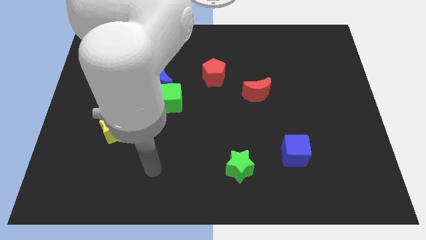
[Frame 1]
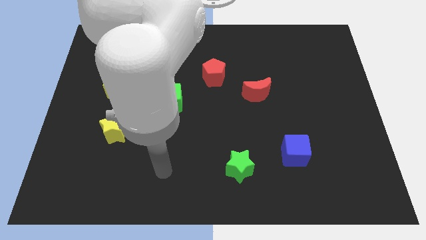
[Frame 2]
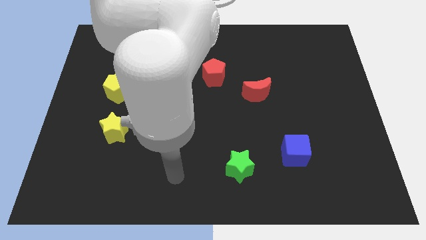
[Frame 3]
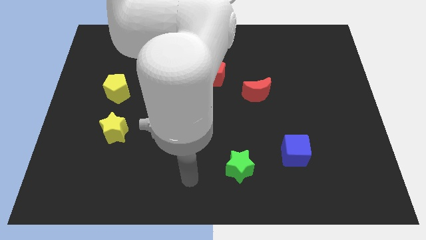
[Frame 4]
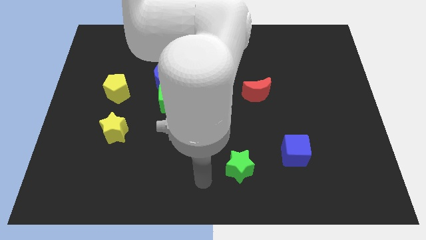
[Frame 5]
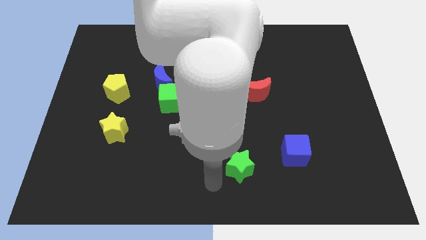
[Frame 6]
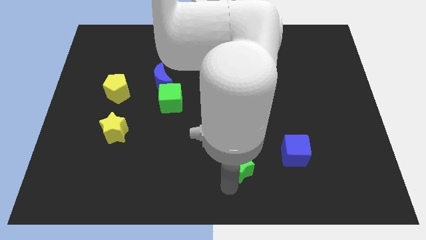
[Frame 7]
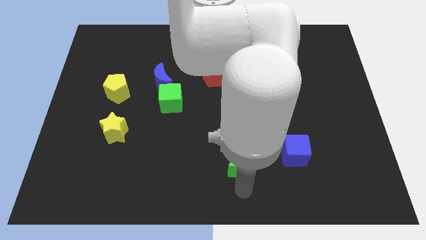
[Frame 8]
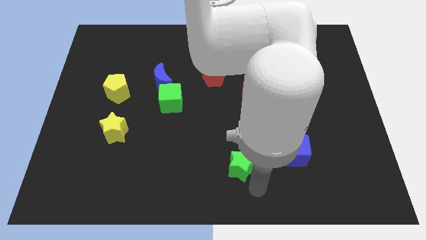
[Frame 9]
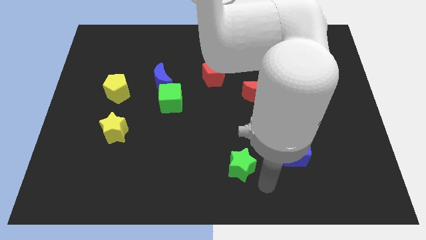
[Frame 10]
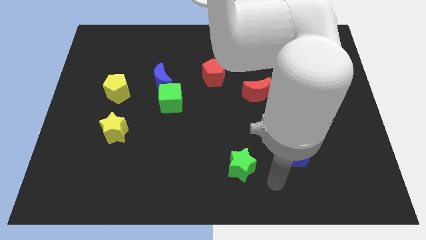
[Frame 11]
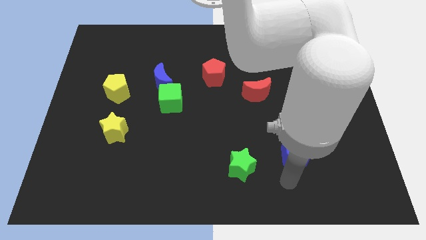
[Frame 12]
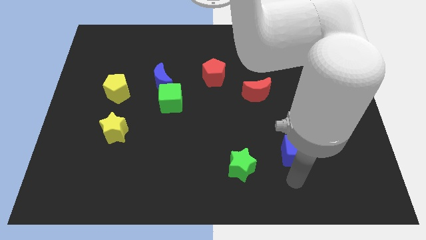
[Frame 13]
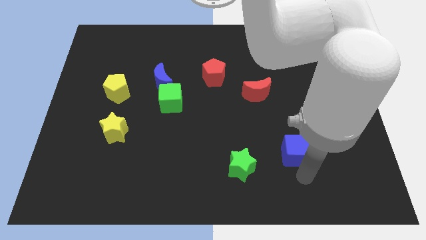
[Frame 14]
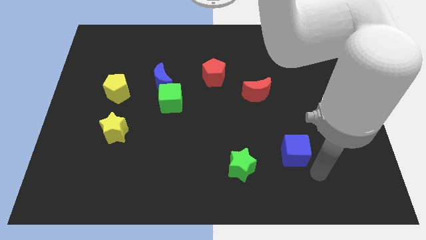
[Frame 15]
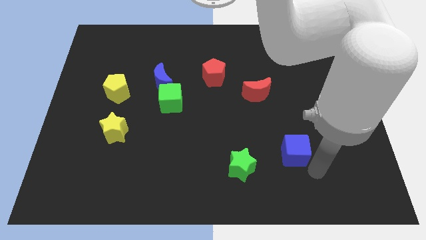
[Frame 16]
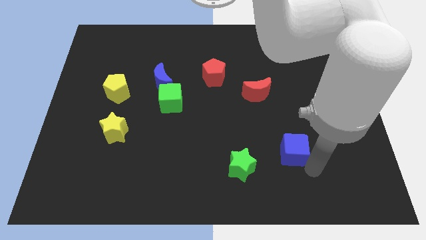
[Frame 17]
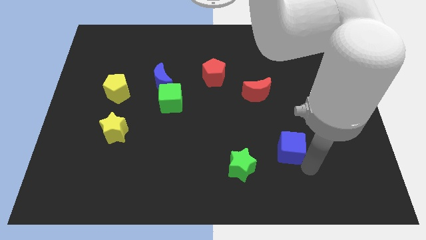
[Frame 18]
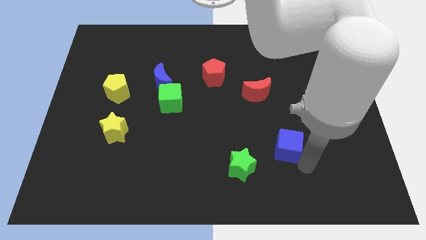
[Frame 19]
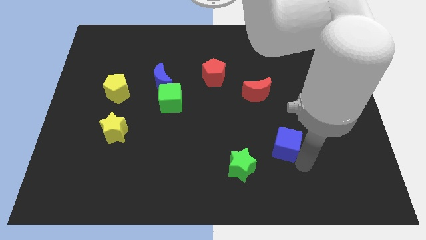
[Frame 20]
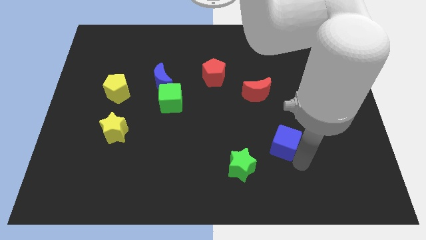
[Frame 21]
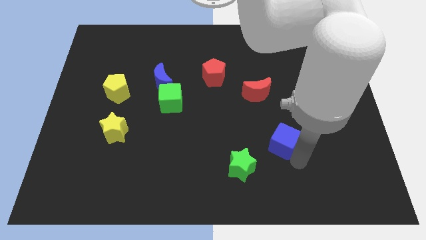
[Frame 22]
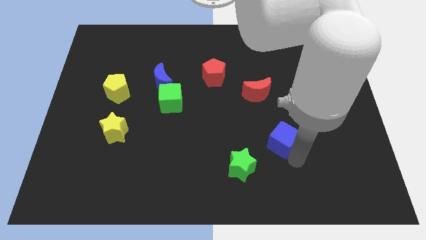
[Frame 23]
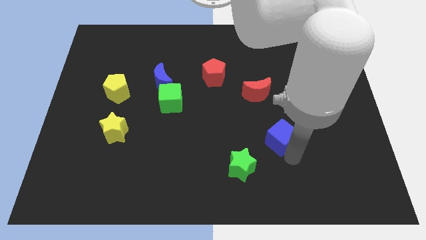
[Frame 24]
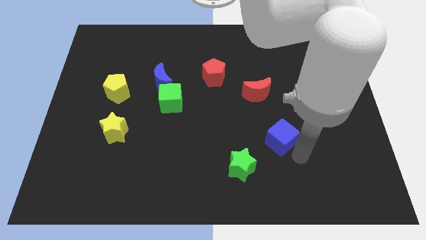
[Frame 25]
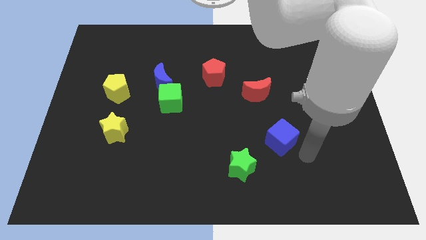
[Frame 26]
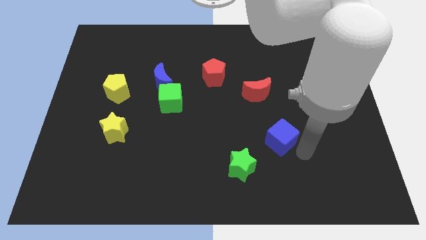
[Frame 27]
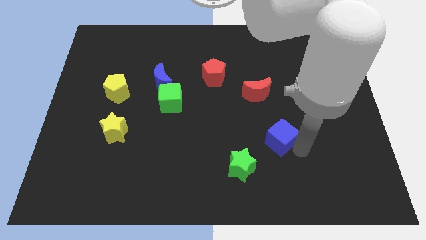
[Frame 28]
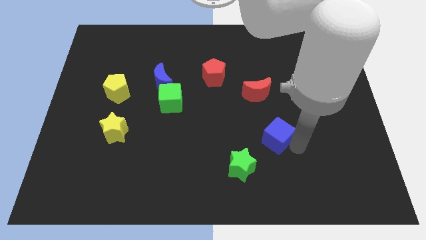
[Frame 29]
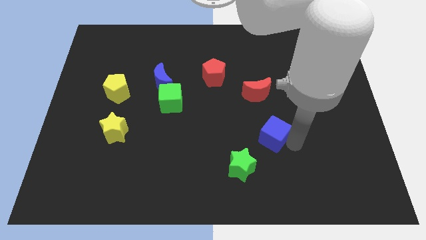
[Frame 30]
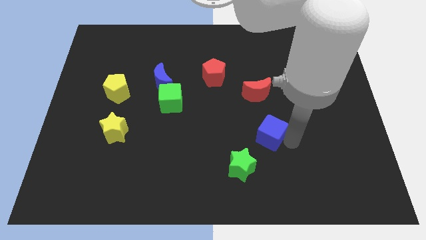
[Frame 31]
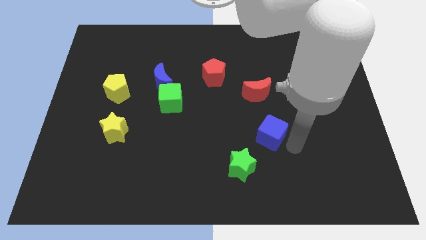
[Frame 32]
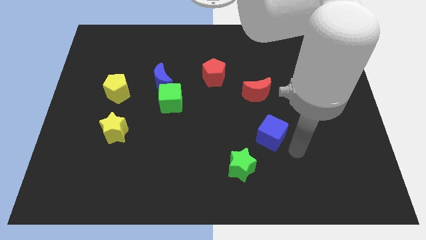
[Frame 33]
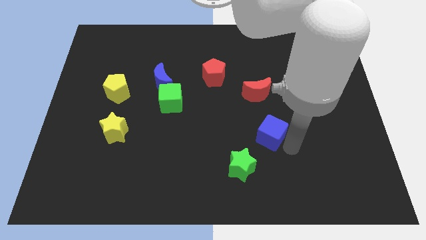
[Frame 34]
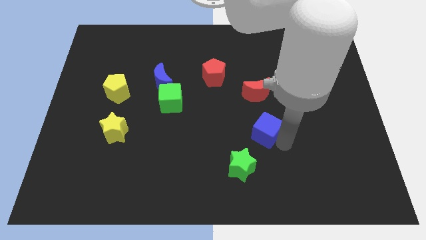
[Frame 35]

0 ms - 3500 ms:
move the blue cube a little bit upwards and left

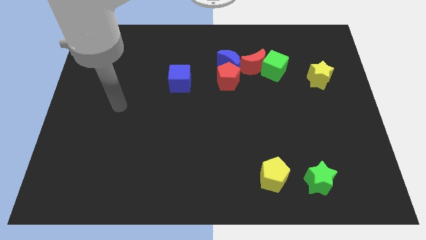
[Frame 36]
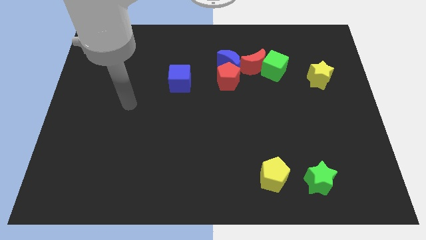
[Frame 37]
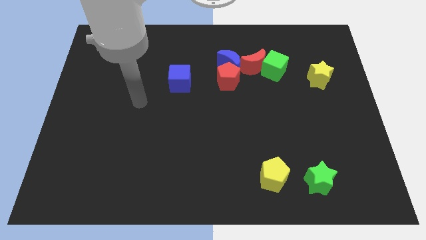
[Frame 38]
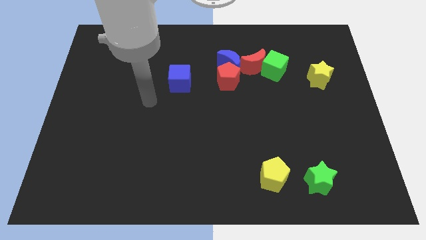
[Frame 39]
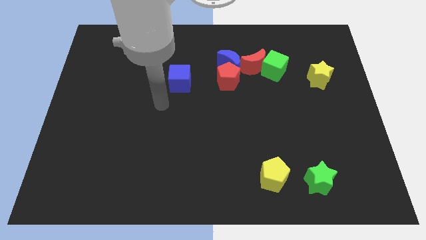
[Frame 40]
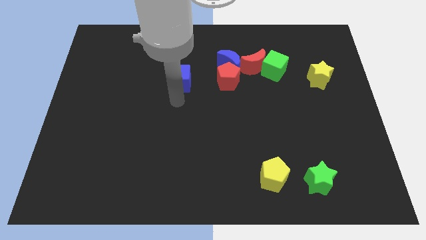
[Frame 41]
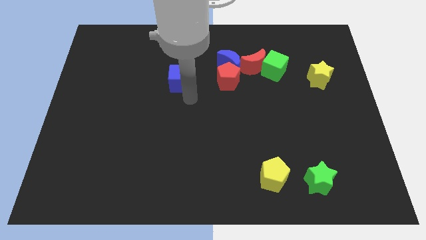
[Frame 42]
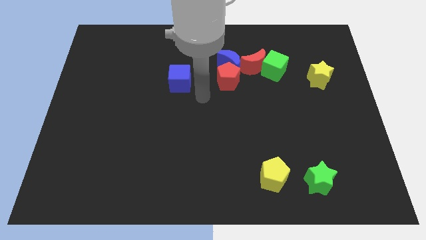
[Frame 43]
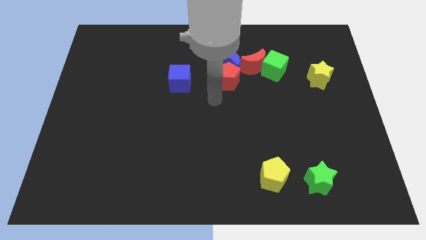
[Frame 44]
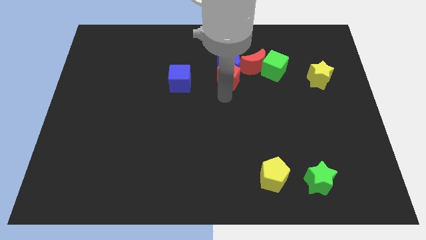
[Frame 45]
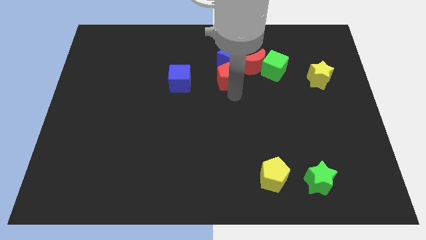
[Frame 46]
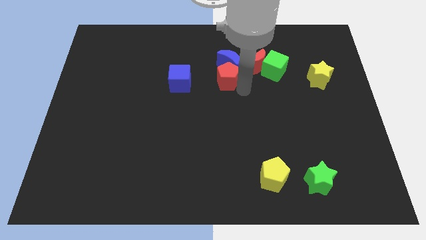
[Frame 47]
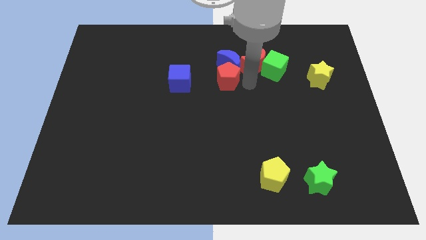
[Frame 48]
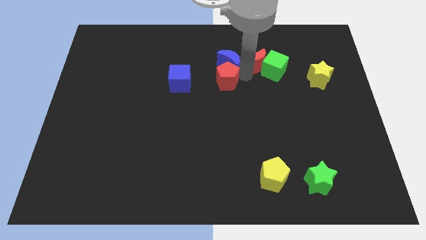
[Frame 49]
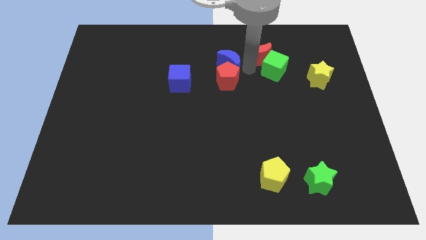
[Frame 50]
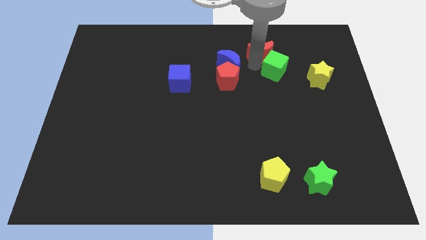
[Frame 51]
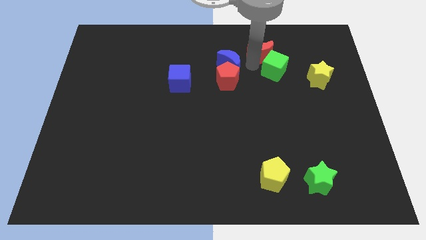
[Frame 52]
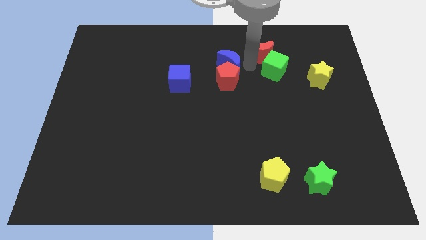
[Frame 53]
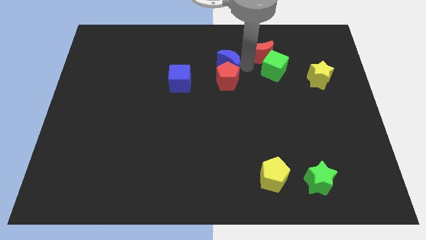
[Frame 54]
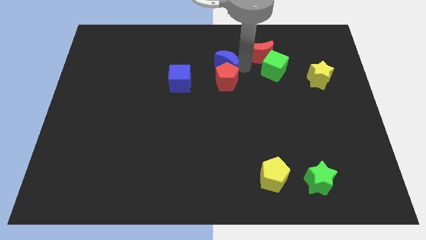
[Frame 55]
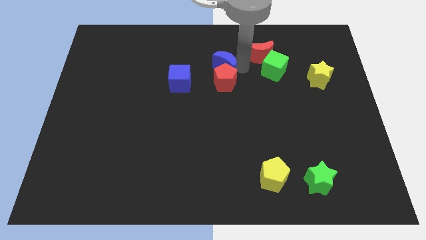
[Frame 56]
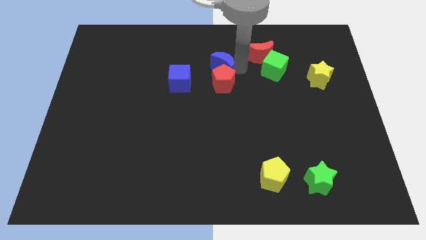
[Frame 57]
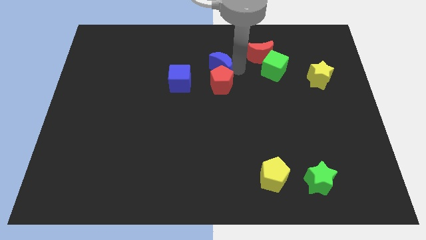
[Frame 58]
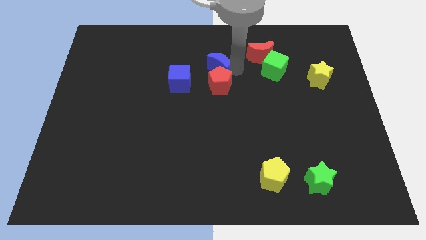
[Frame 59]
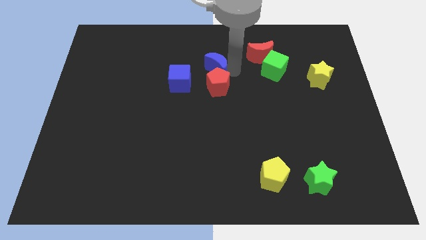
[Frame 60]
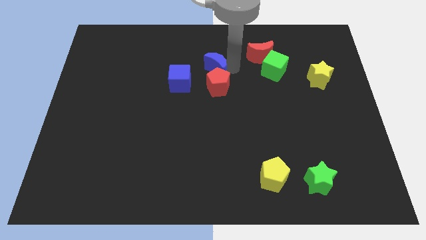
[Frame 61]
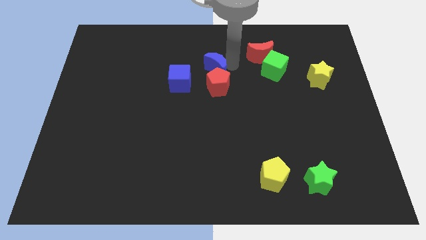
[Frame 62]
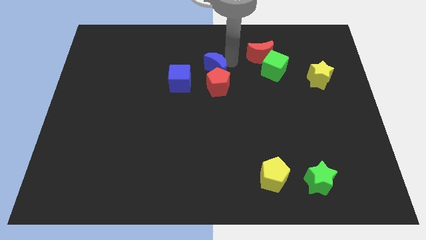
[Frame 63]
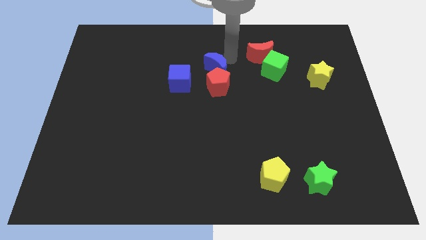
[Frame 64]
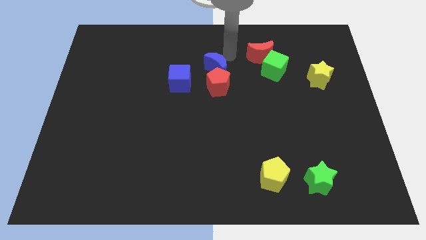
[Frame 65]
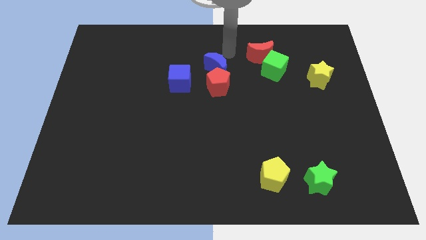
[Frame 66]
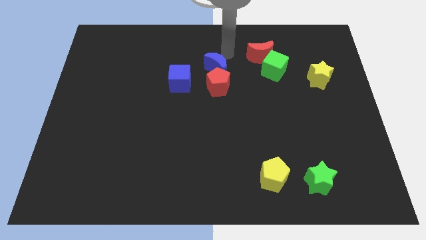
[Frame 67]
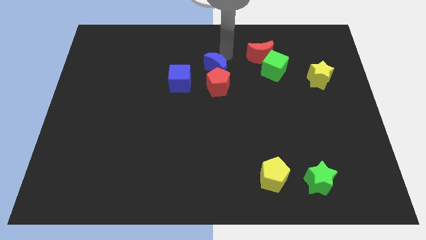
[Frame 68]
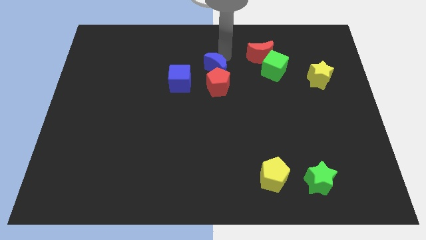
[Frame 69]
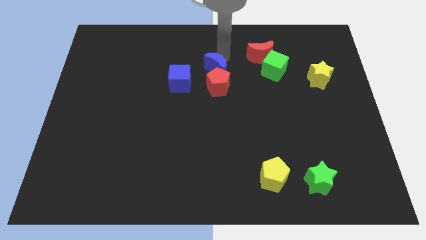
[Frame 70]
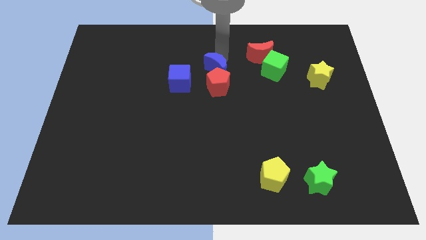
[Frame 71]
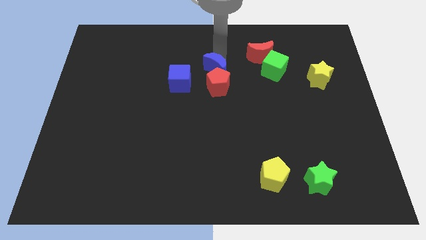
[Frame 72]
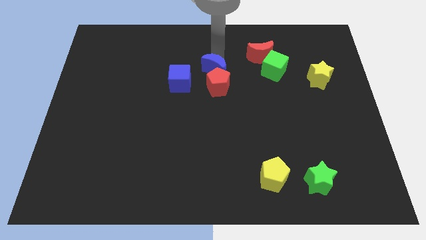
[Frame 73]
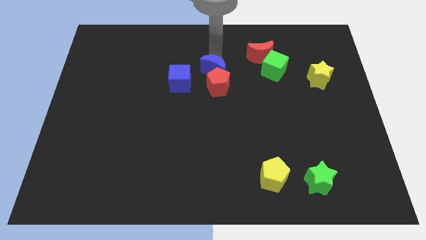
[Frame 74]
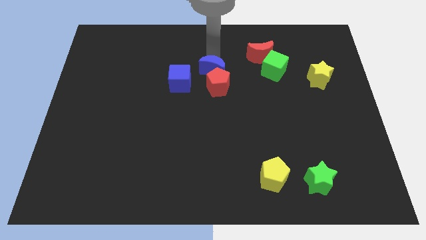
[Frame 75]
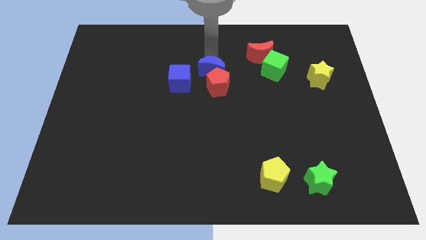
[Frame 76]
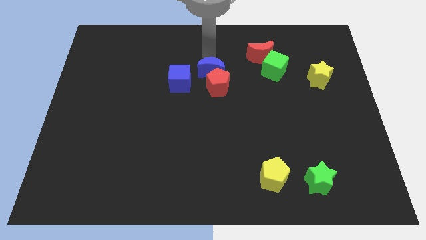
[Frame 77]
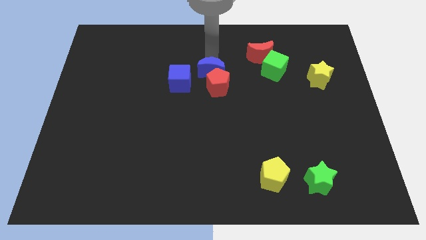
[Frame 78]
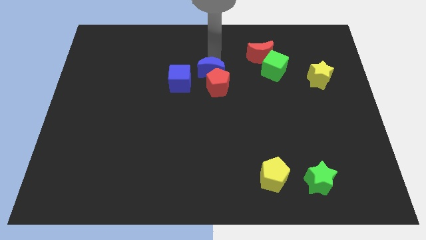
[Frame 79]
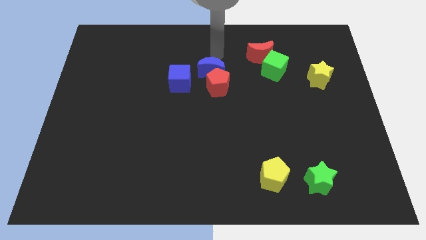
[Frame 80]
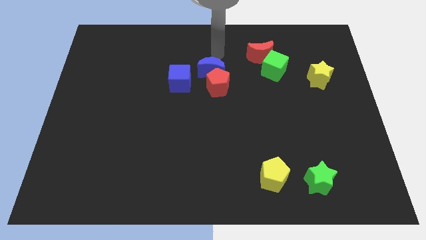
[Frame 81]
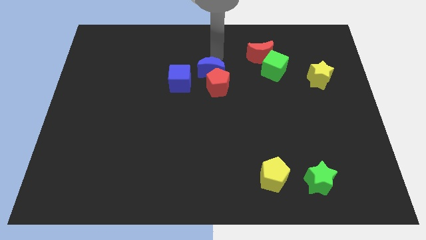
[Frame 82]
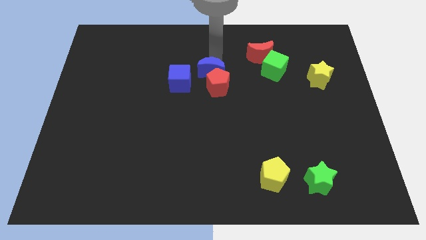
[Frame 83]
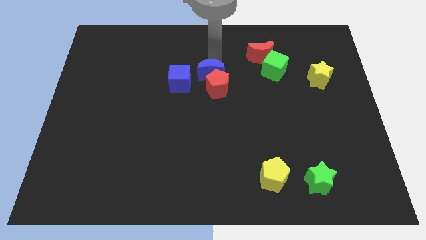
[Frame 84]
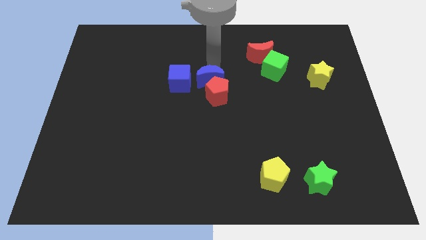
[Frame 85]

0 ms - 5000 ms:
move the blue moon downwards and then left somewhat
